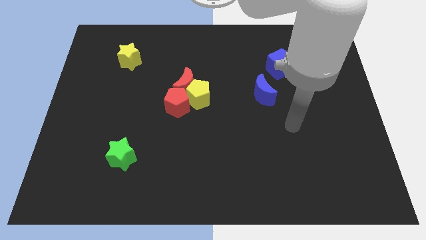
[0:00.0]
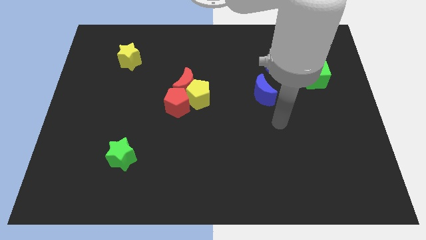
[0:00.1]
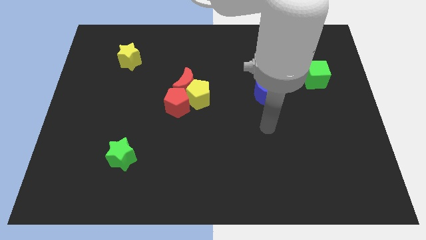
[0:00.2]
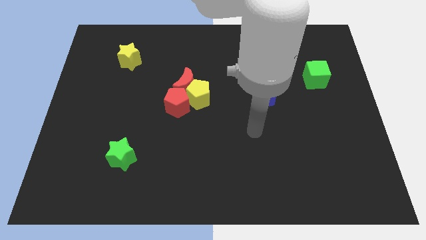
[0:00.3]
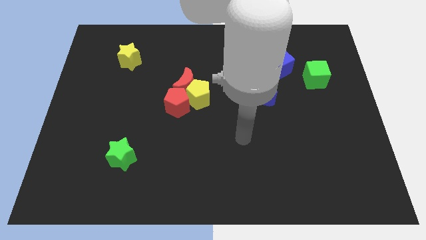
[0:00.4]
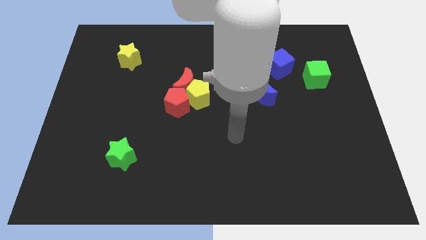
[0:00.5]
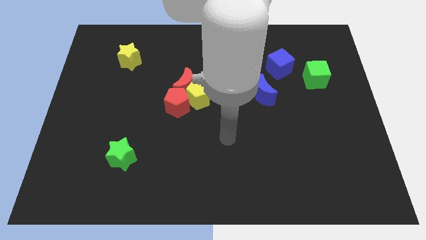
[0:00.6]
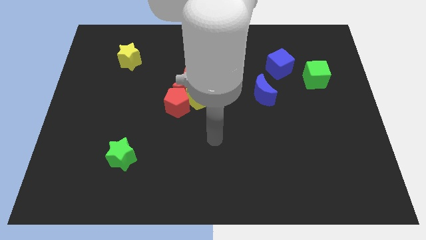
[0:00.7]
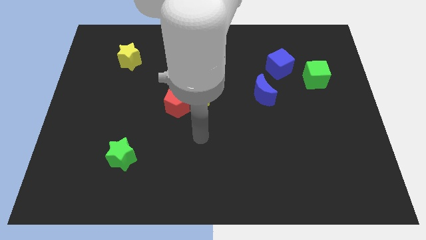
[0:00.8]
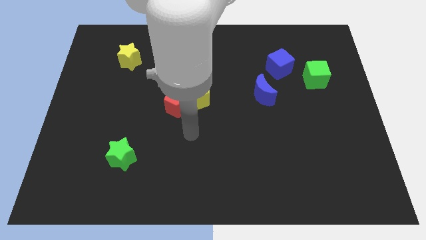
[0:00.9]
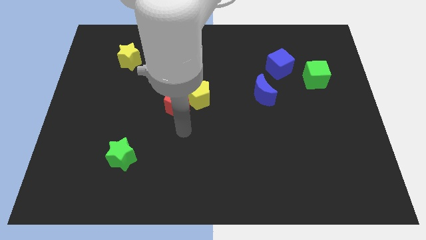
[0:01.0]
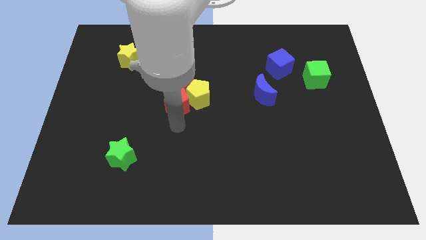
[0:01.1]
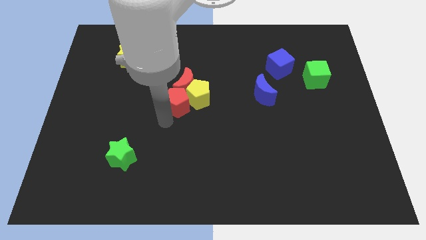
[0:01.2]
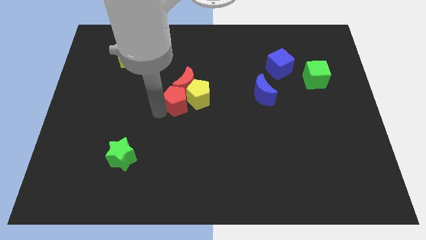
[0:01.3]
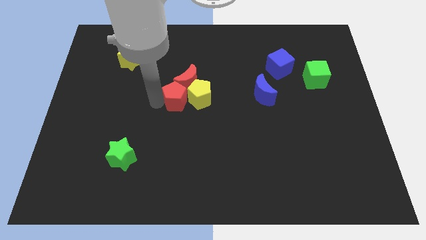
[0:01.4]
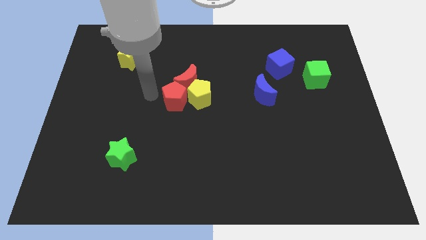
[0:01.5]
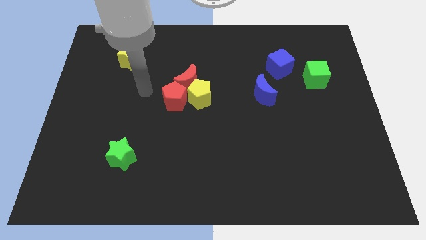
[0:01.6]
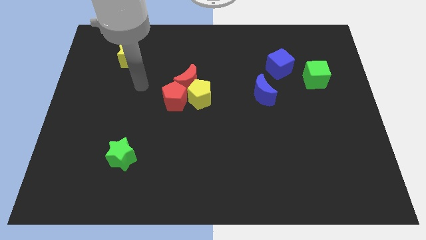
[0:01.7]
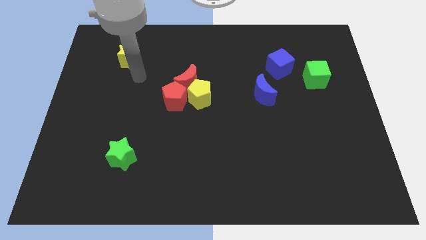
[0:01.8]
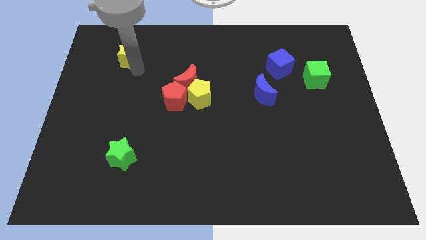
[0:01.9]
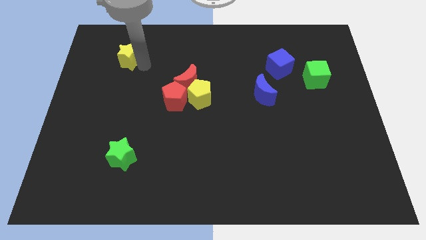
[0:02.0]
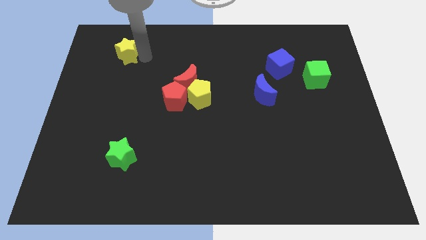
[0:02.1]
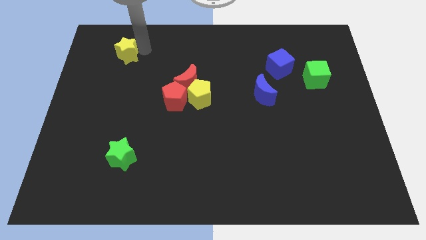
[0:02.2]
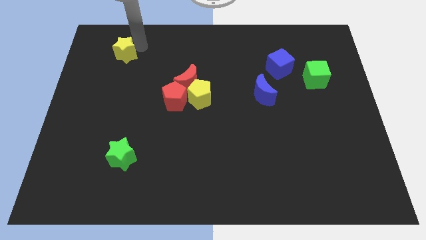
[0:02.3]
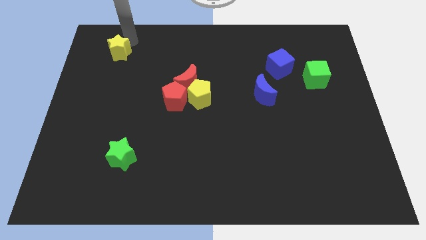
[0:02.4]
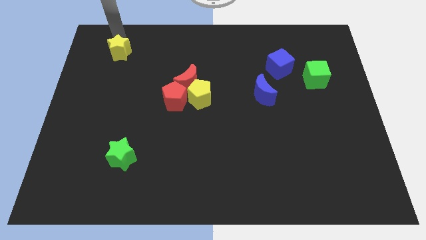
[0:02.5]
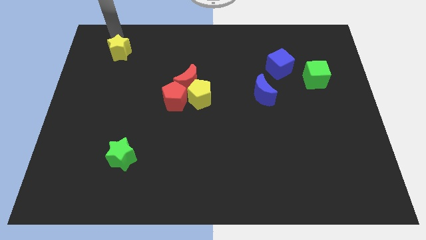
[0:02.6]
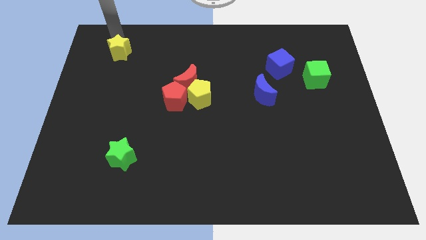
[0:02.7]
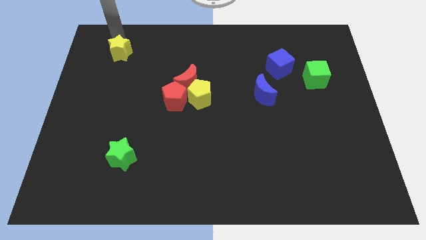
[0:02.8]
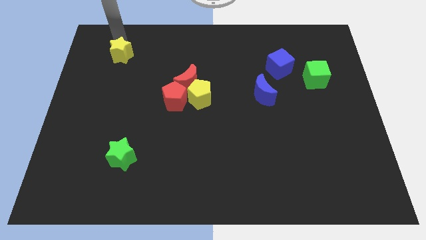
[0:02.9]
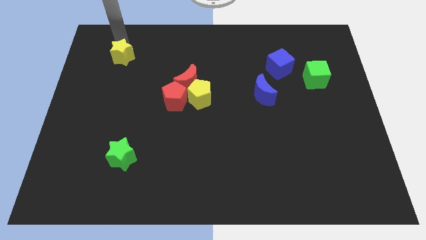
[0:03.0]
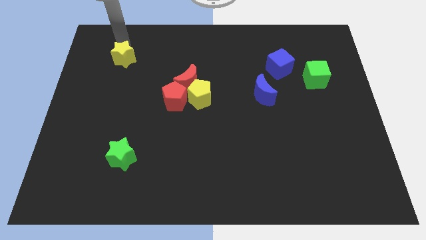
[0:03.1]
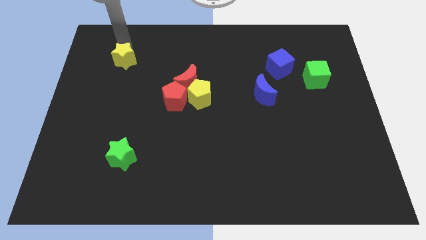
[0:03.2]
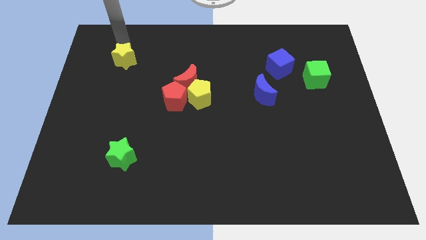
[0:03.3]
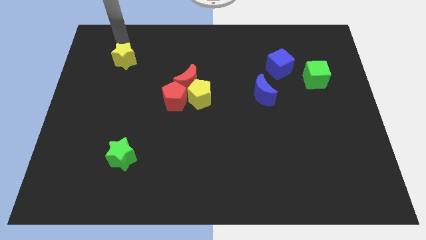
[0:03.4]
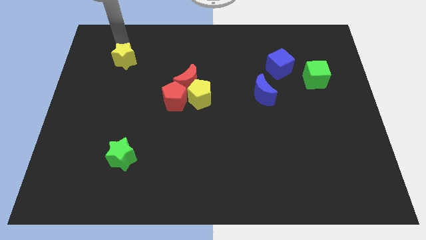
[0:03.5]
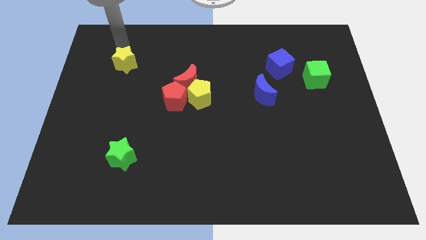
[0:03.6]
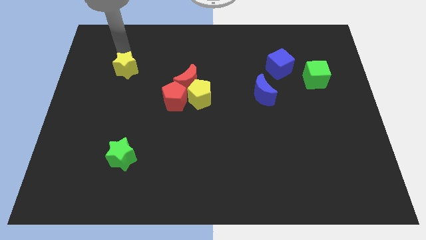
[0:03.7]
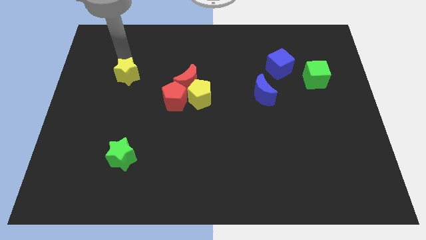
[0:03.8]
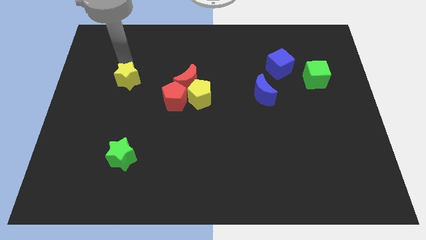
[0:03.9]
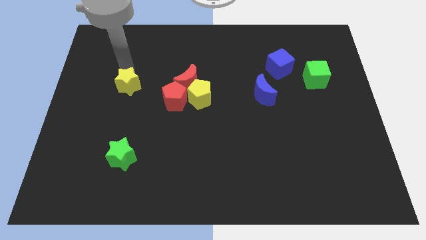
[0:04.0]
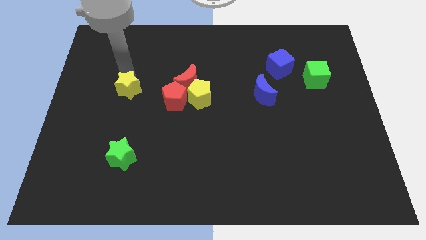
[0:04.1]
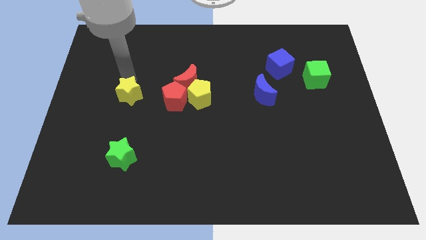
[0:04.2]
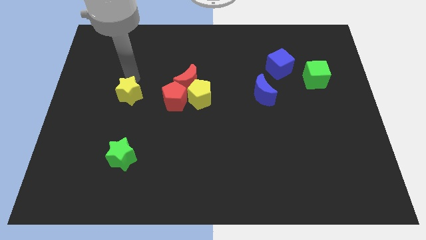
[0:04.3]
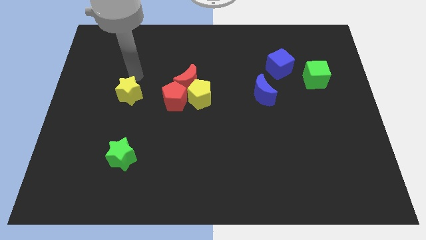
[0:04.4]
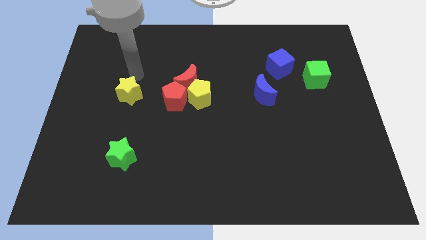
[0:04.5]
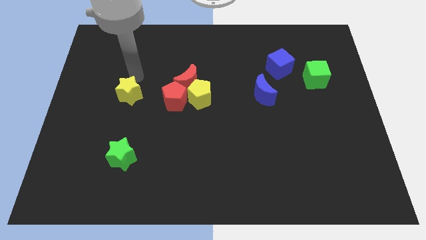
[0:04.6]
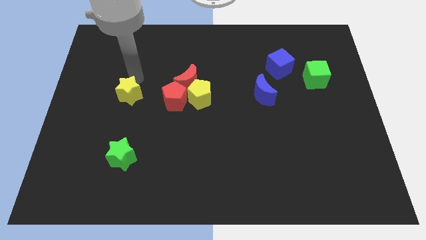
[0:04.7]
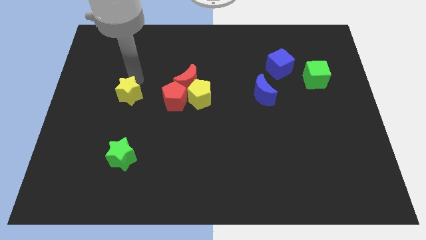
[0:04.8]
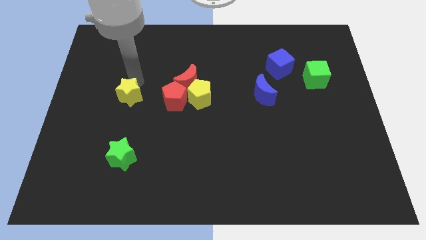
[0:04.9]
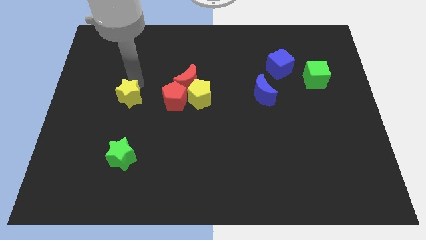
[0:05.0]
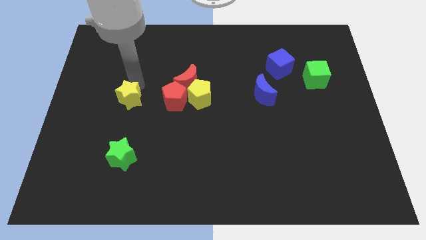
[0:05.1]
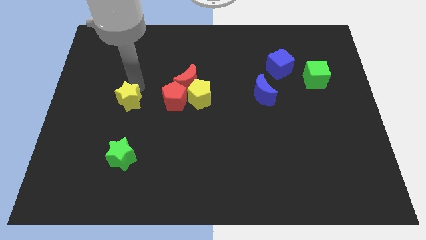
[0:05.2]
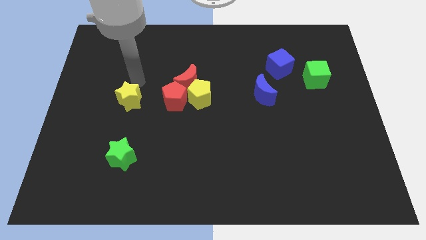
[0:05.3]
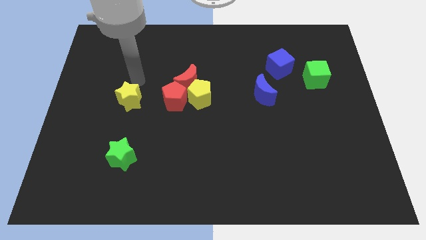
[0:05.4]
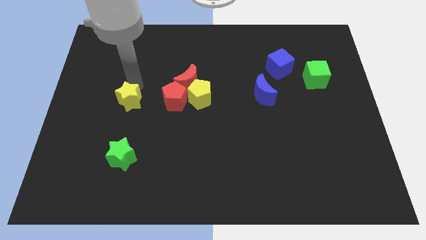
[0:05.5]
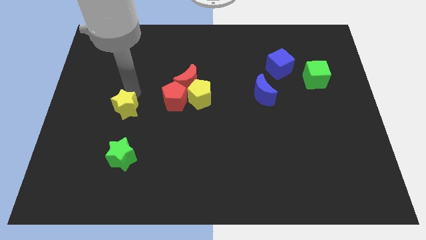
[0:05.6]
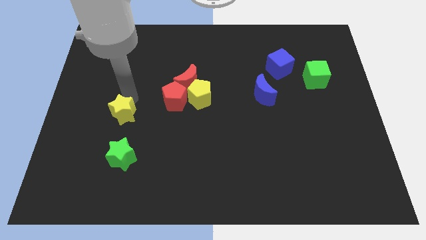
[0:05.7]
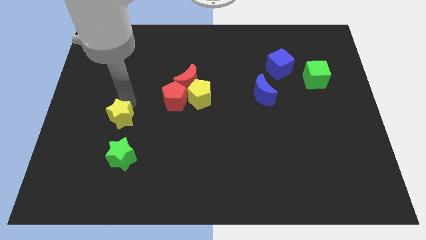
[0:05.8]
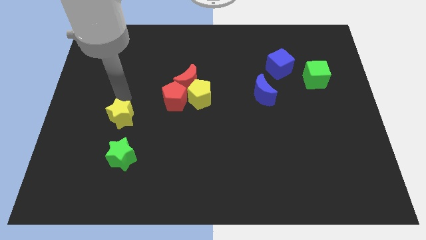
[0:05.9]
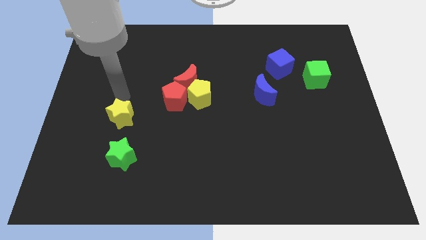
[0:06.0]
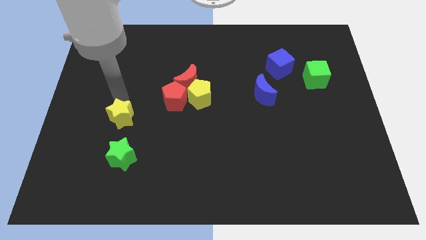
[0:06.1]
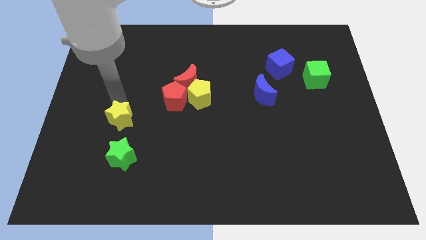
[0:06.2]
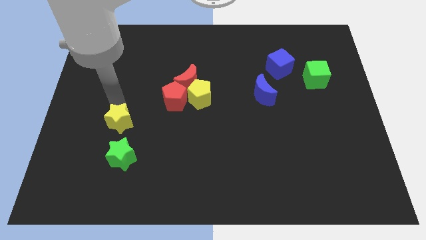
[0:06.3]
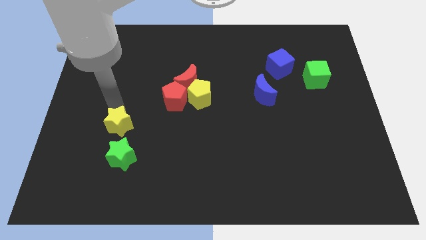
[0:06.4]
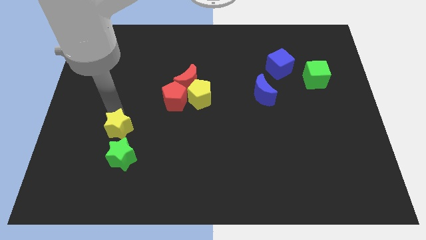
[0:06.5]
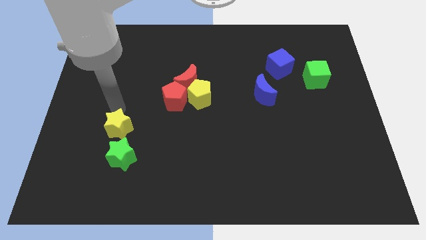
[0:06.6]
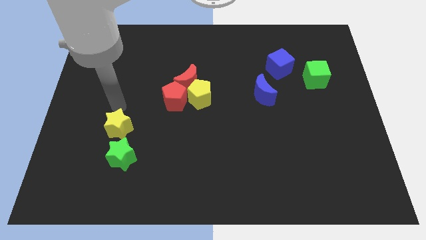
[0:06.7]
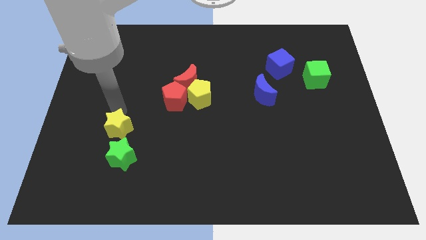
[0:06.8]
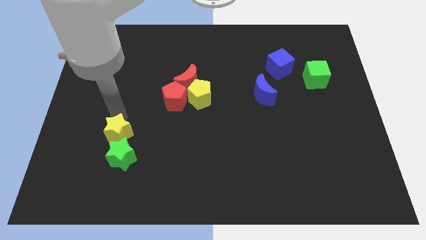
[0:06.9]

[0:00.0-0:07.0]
push the yellow star to the green star

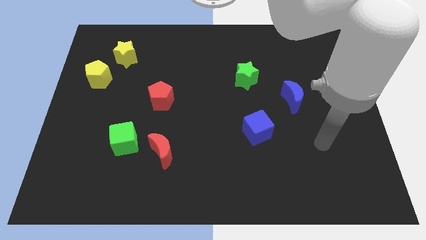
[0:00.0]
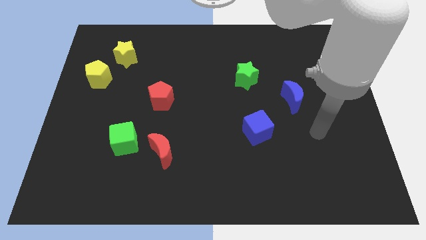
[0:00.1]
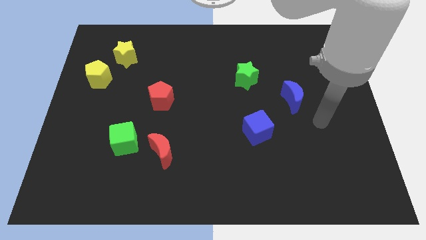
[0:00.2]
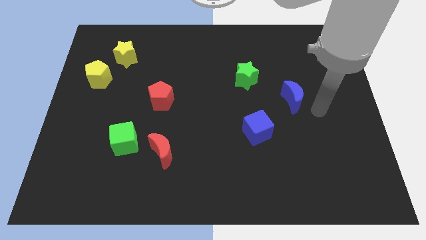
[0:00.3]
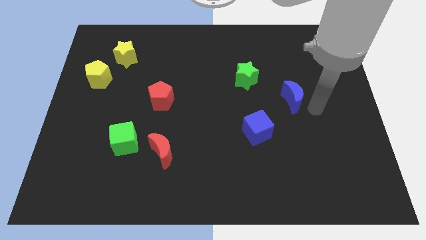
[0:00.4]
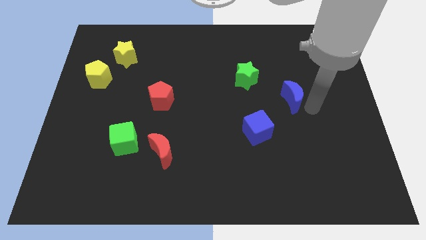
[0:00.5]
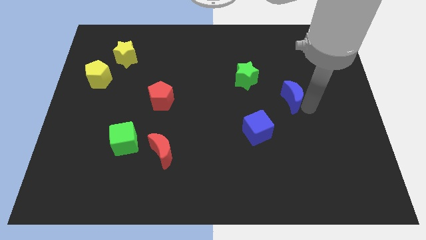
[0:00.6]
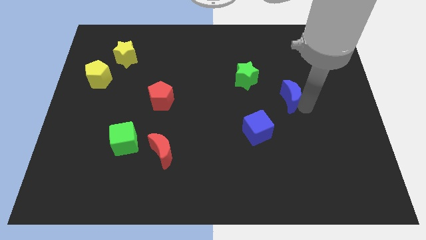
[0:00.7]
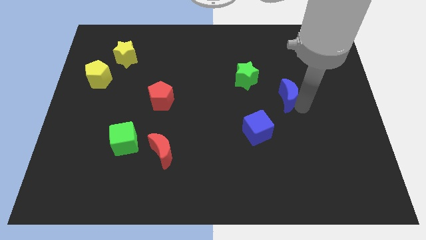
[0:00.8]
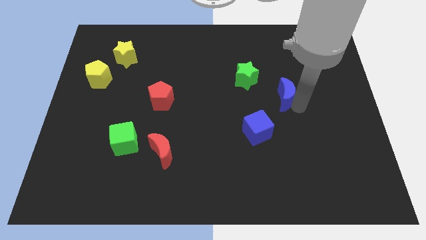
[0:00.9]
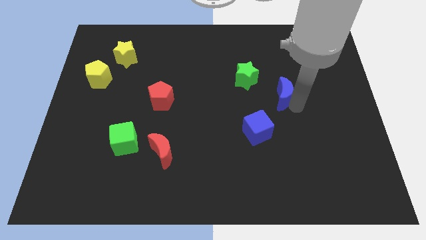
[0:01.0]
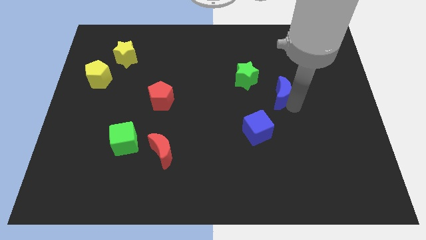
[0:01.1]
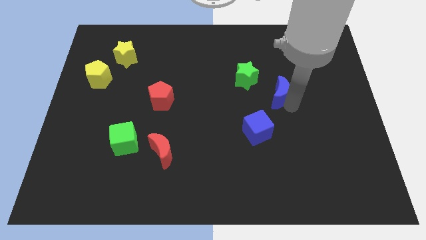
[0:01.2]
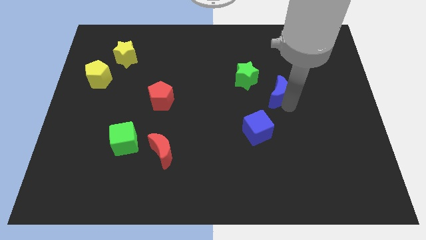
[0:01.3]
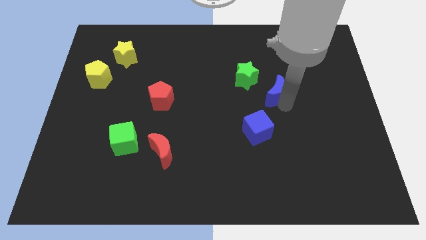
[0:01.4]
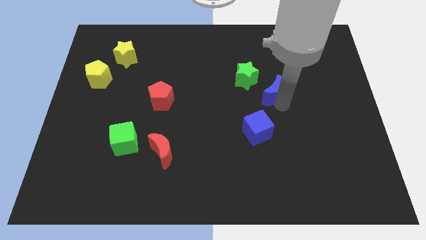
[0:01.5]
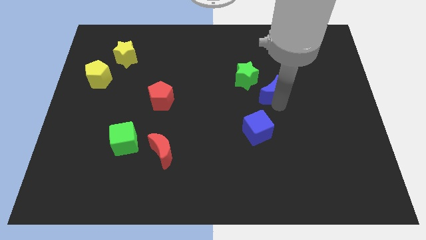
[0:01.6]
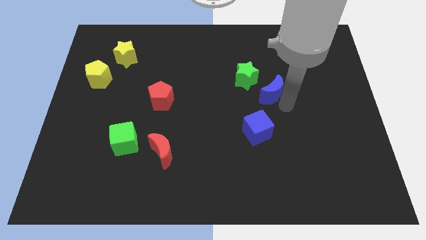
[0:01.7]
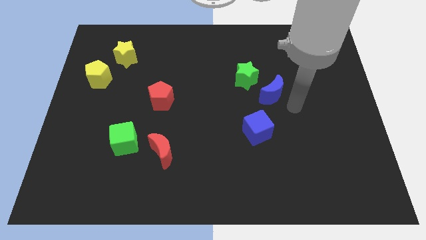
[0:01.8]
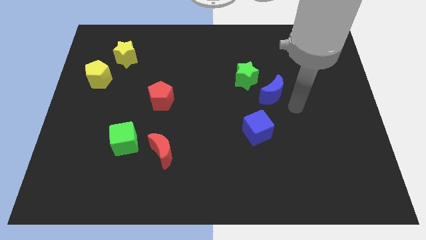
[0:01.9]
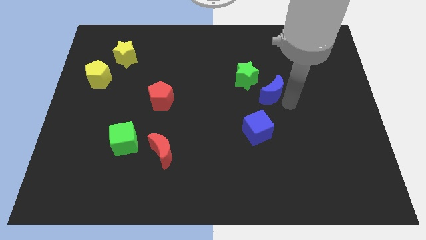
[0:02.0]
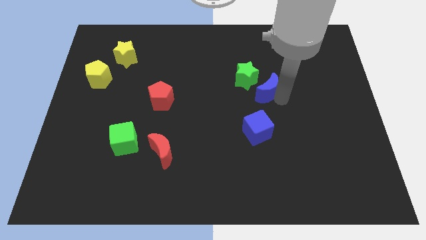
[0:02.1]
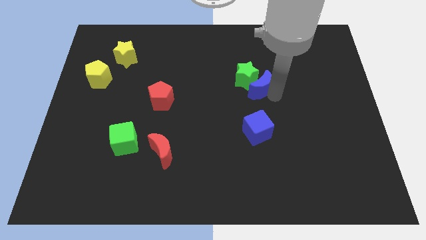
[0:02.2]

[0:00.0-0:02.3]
slide the blue moon towards the green star
